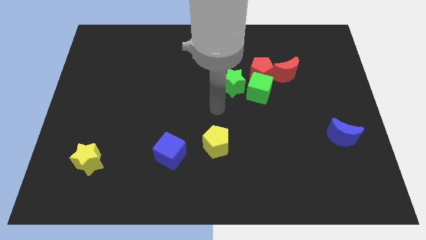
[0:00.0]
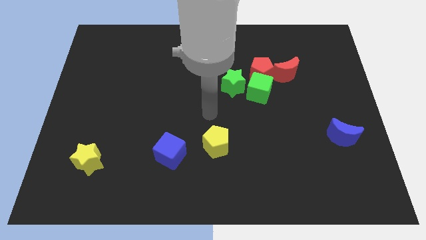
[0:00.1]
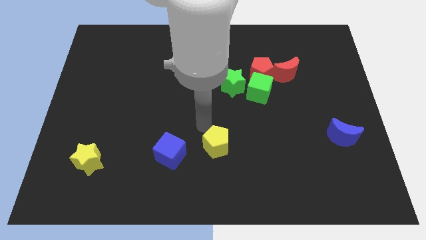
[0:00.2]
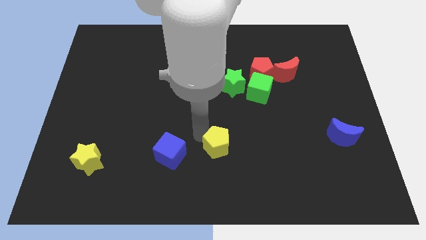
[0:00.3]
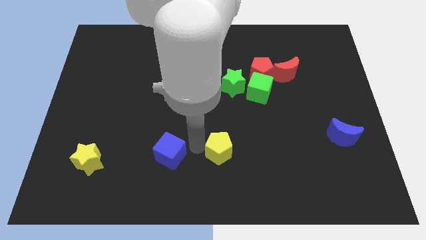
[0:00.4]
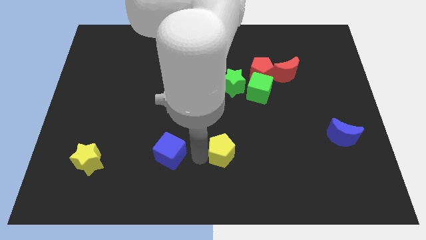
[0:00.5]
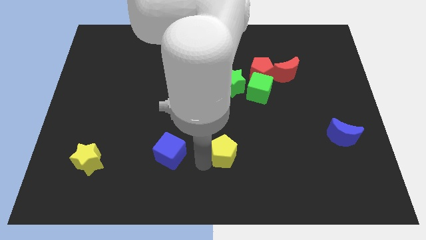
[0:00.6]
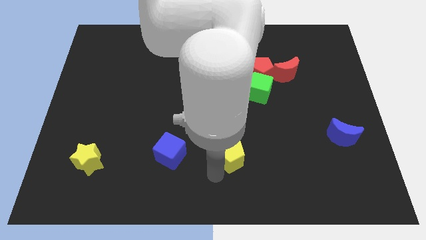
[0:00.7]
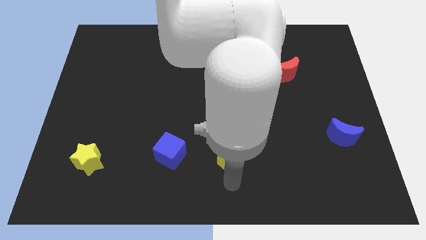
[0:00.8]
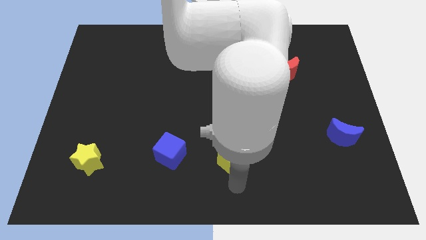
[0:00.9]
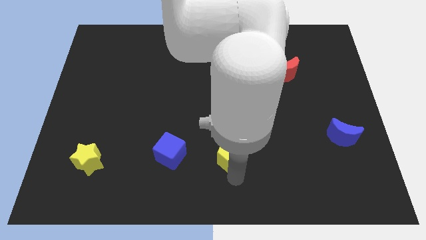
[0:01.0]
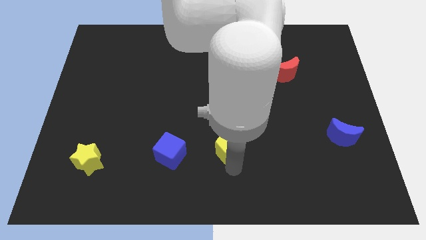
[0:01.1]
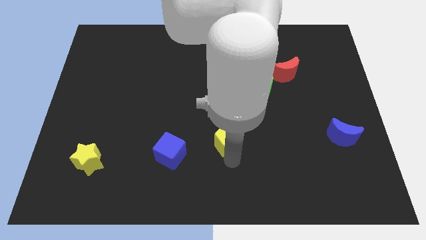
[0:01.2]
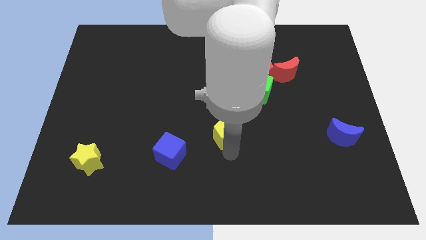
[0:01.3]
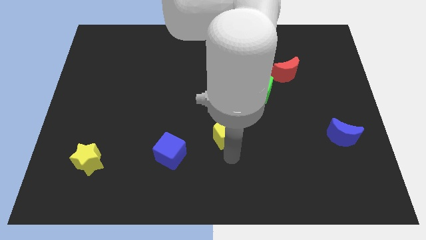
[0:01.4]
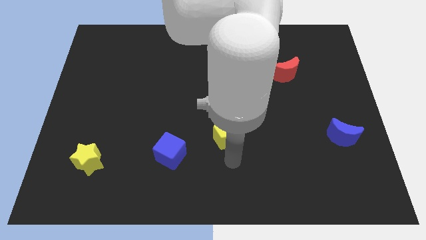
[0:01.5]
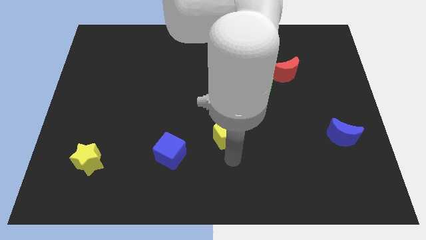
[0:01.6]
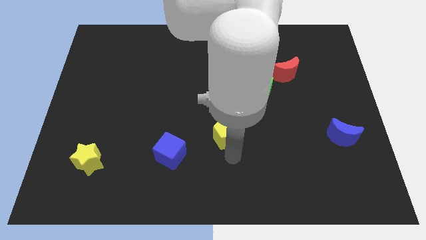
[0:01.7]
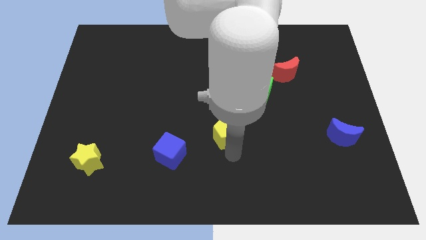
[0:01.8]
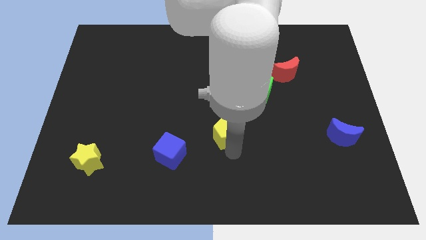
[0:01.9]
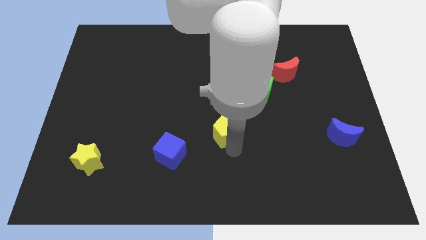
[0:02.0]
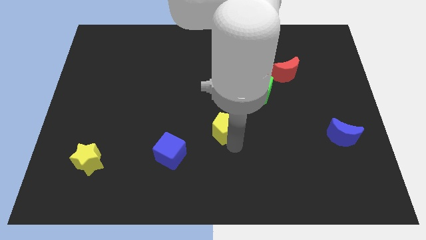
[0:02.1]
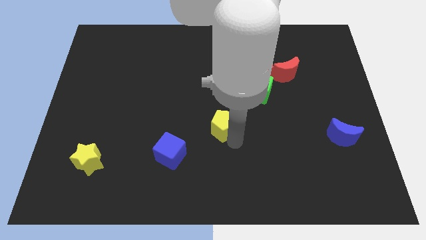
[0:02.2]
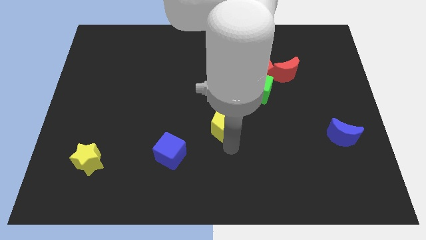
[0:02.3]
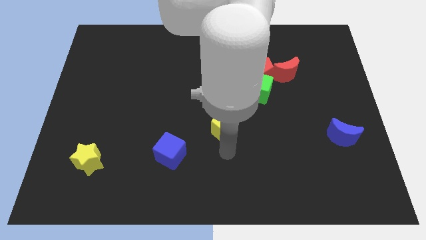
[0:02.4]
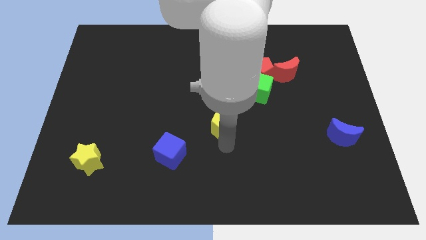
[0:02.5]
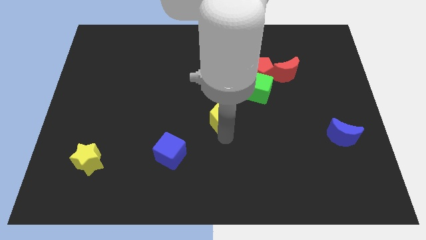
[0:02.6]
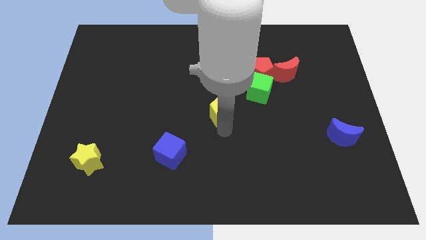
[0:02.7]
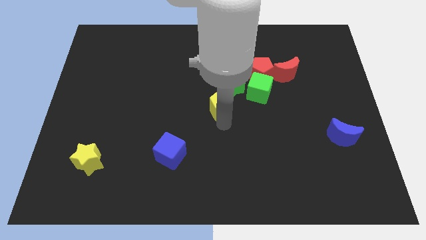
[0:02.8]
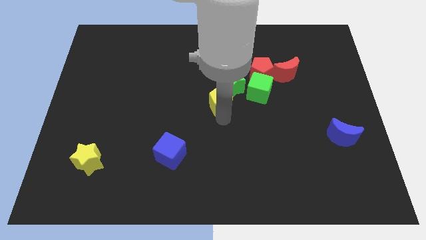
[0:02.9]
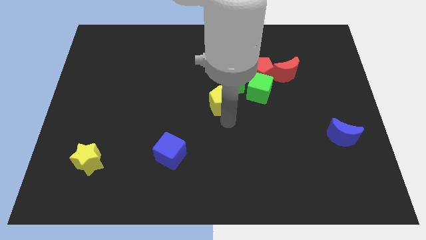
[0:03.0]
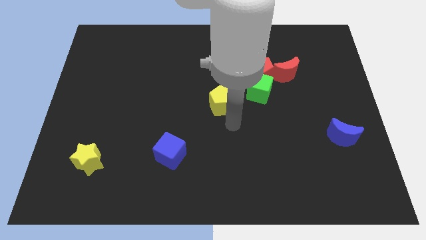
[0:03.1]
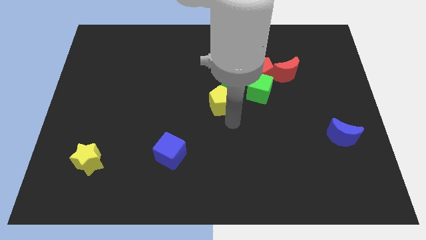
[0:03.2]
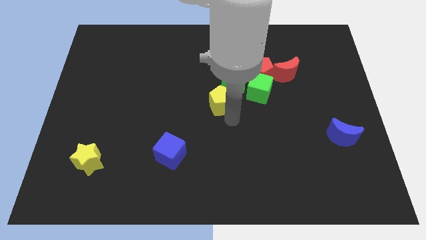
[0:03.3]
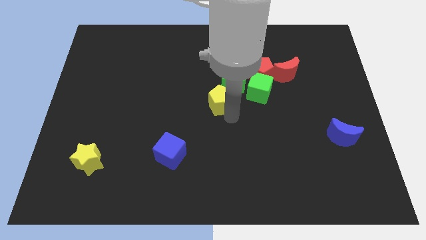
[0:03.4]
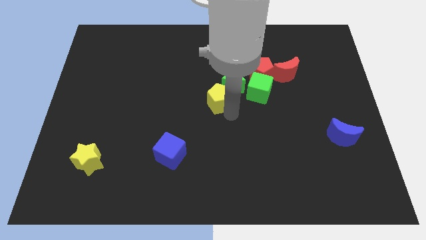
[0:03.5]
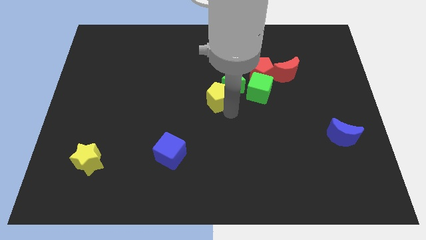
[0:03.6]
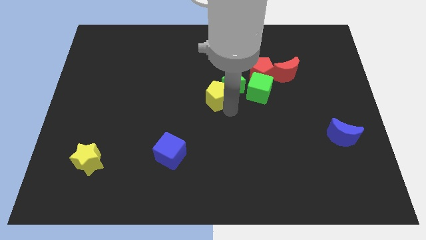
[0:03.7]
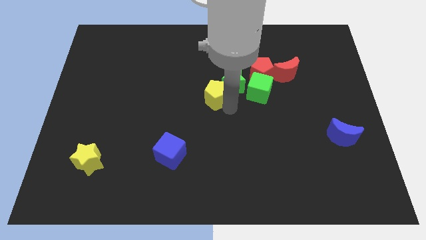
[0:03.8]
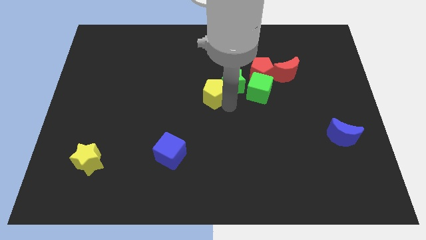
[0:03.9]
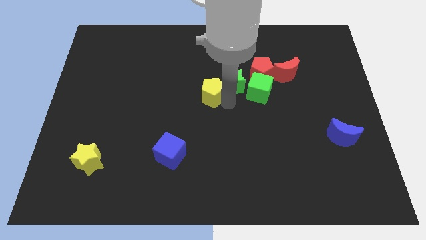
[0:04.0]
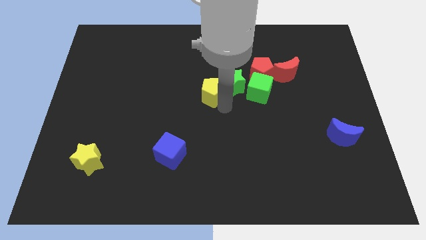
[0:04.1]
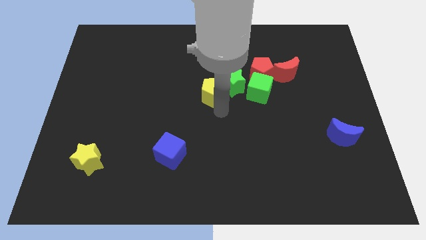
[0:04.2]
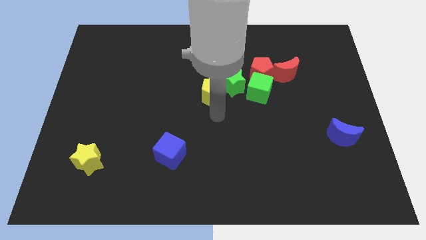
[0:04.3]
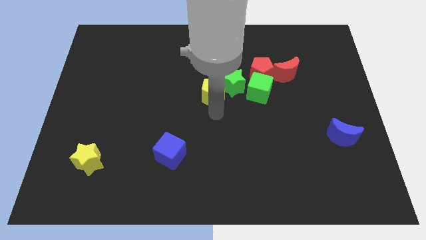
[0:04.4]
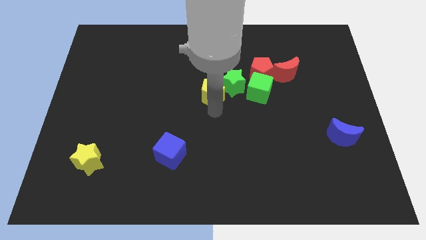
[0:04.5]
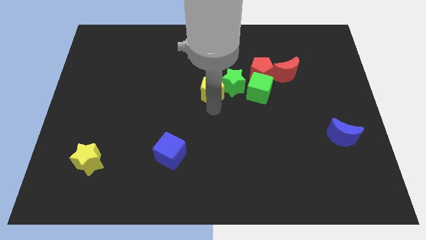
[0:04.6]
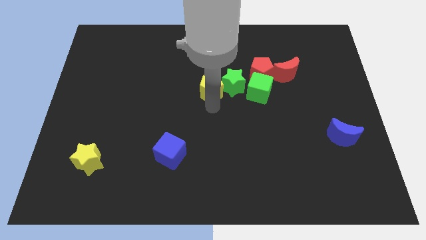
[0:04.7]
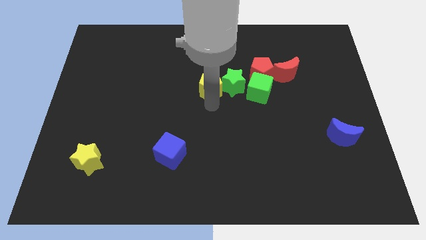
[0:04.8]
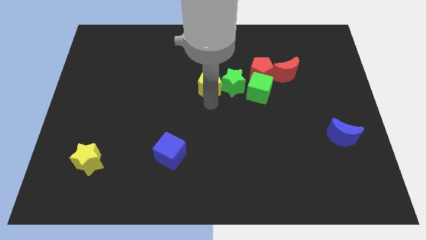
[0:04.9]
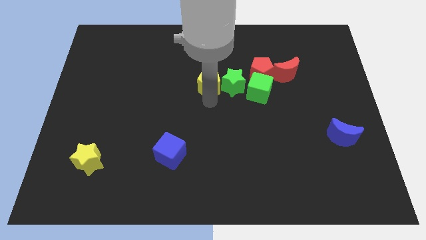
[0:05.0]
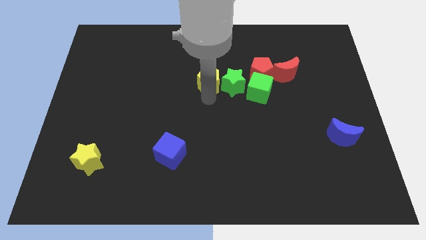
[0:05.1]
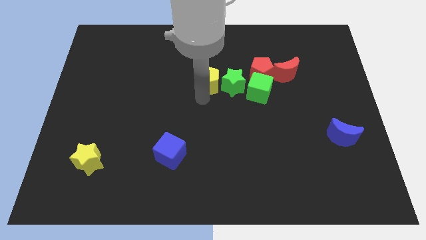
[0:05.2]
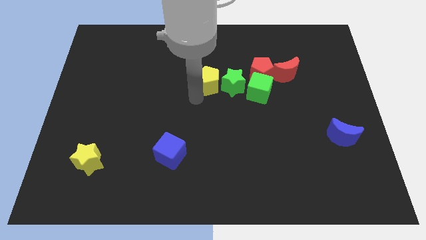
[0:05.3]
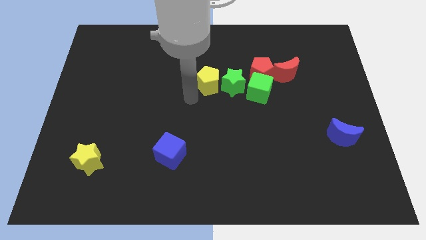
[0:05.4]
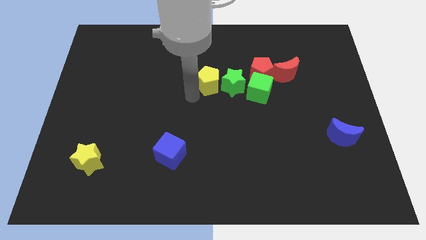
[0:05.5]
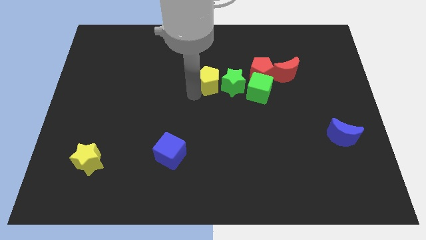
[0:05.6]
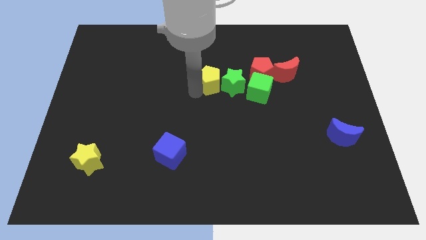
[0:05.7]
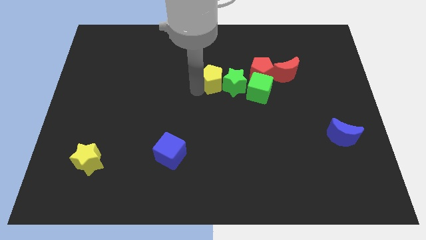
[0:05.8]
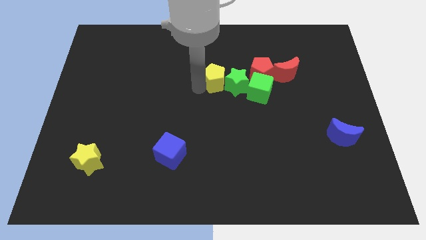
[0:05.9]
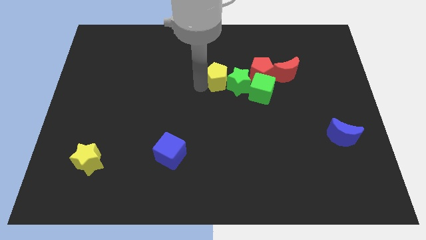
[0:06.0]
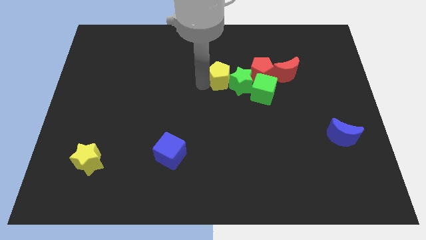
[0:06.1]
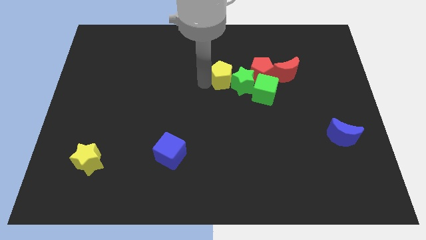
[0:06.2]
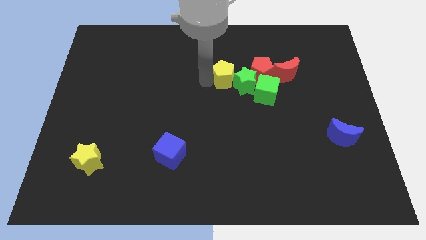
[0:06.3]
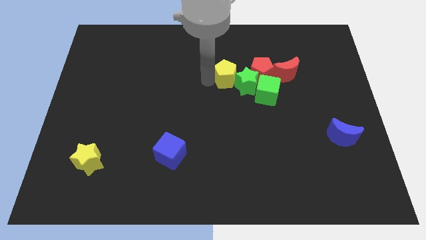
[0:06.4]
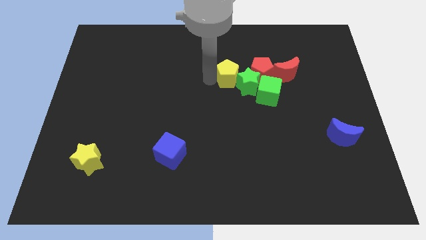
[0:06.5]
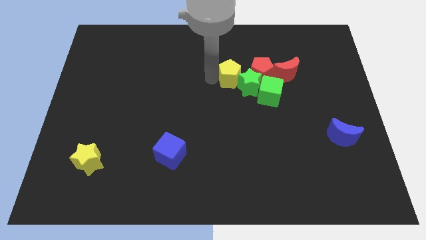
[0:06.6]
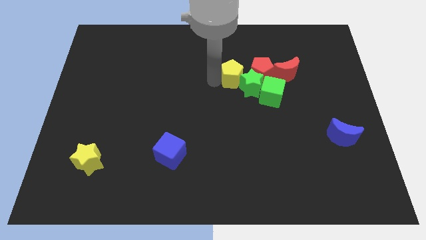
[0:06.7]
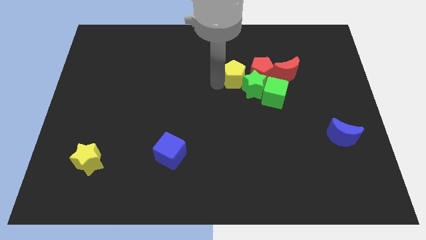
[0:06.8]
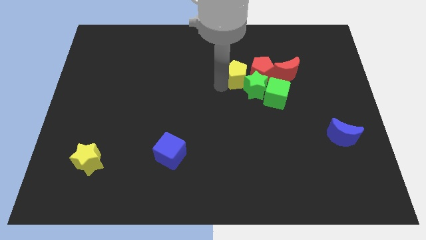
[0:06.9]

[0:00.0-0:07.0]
put the yellow pentagon close to the red pentagon
